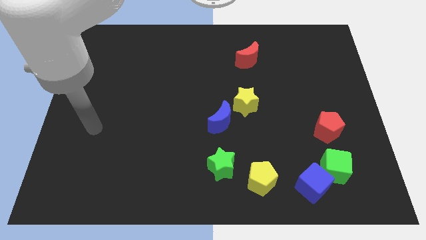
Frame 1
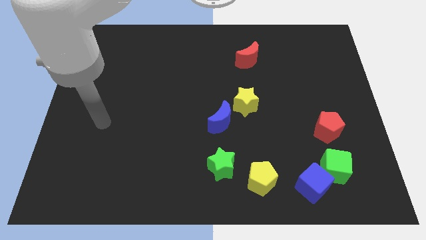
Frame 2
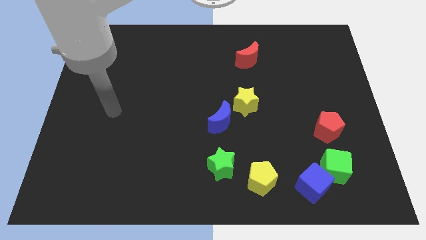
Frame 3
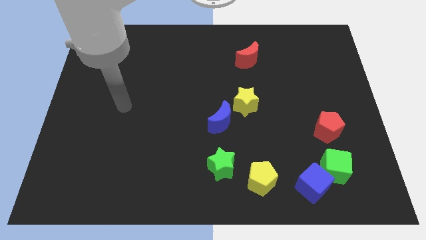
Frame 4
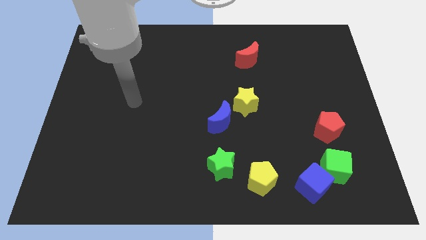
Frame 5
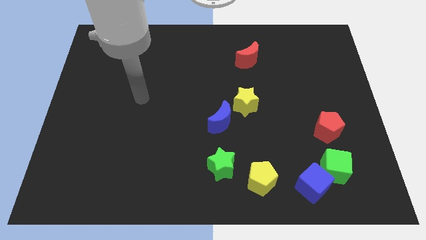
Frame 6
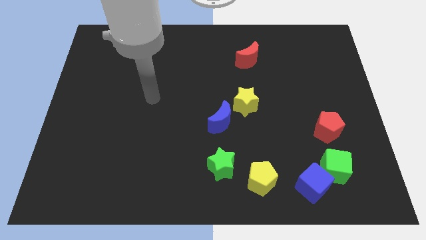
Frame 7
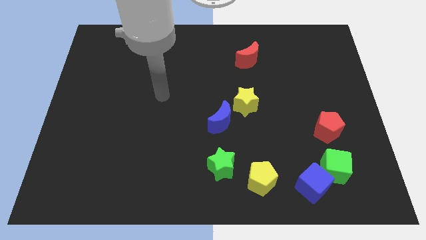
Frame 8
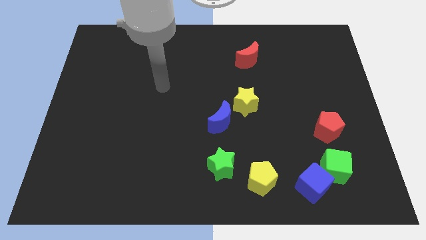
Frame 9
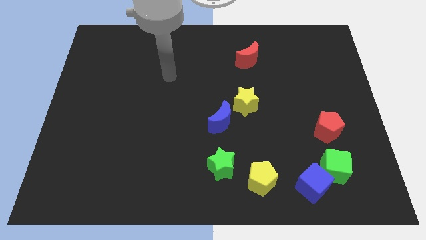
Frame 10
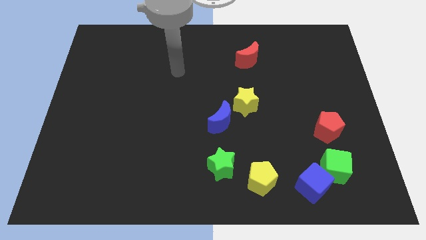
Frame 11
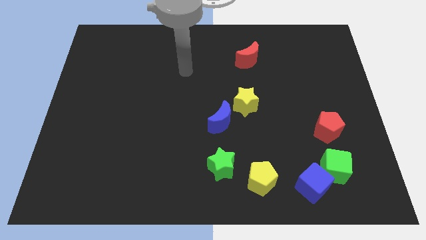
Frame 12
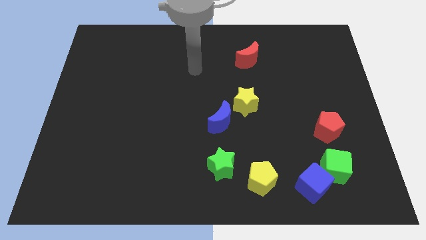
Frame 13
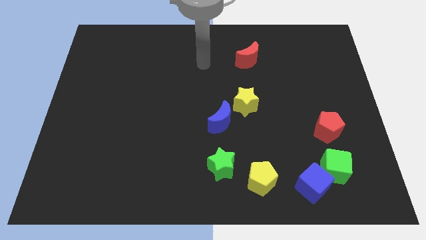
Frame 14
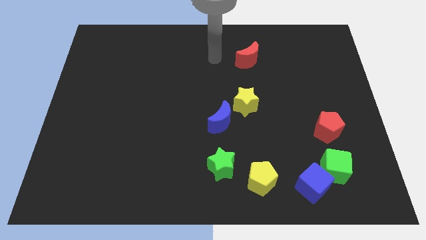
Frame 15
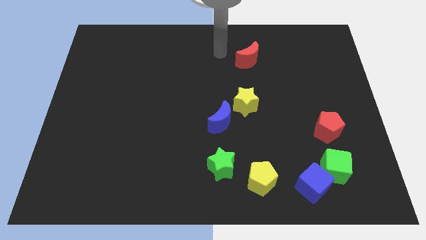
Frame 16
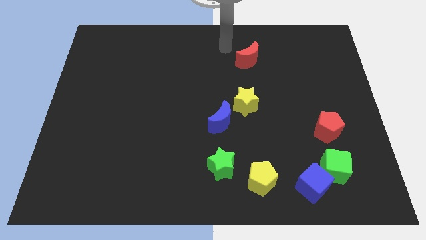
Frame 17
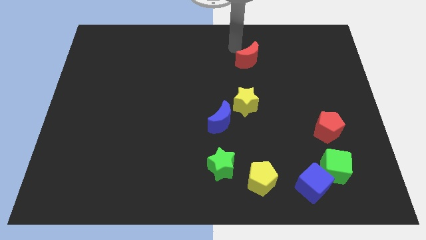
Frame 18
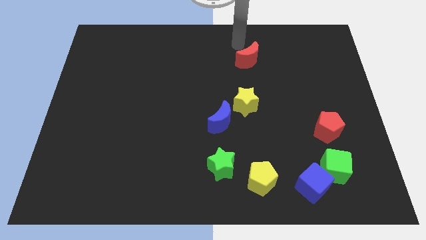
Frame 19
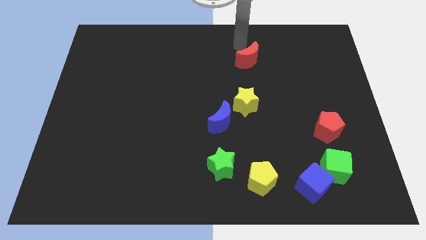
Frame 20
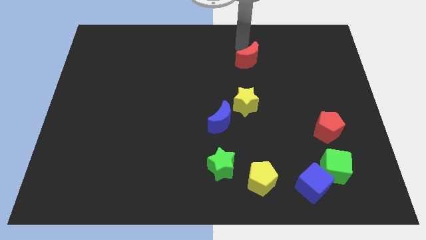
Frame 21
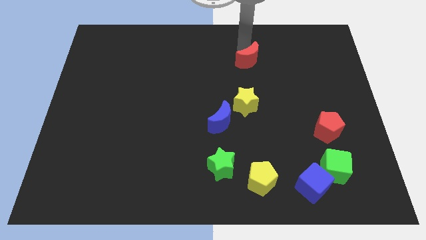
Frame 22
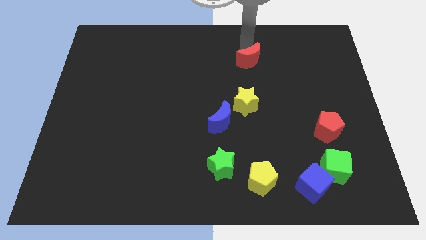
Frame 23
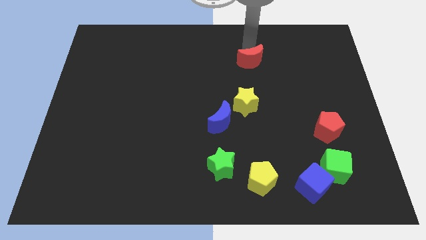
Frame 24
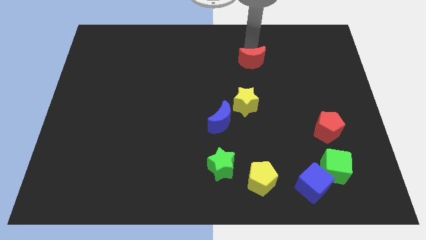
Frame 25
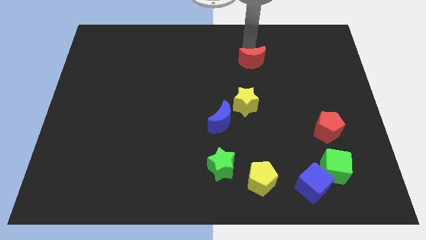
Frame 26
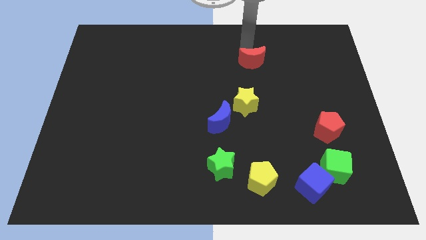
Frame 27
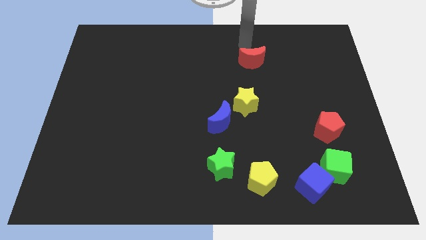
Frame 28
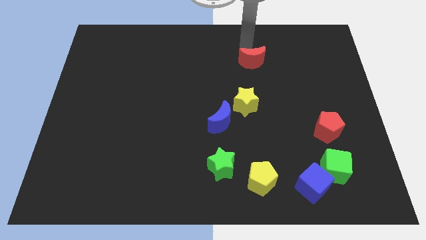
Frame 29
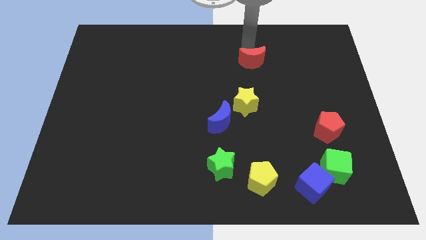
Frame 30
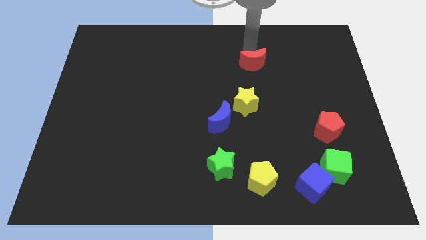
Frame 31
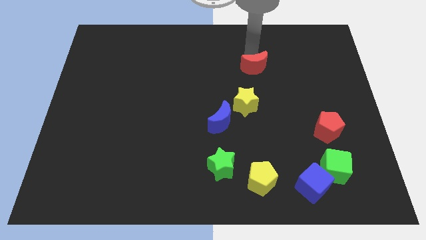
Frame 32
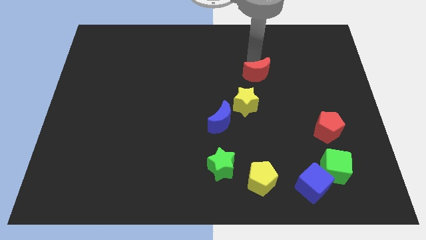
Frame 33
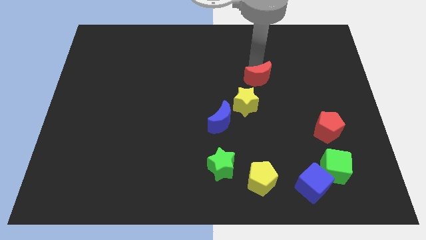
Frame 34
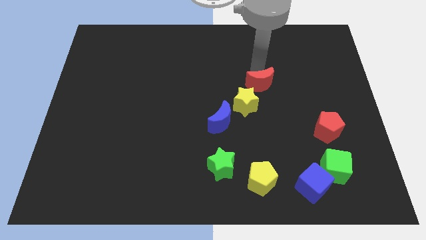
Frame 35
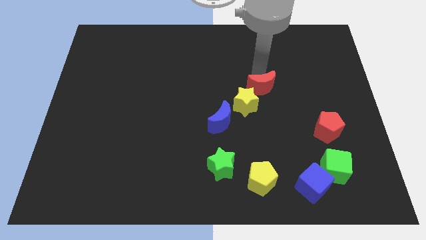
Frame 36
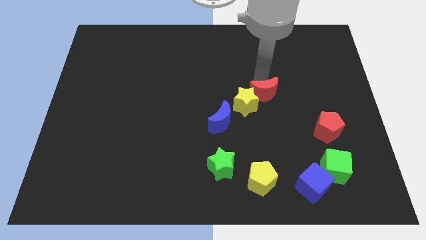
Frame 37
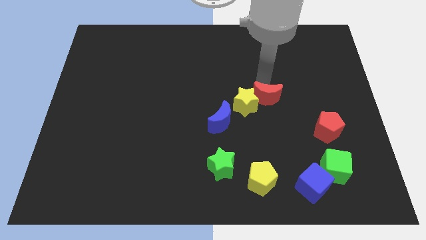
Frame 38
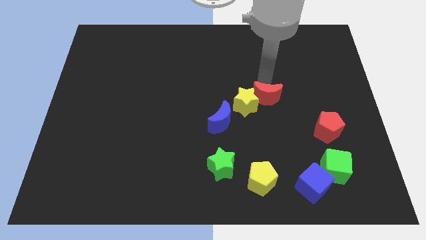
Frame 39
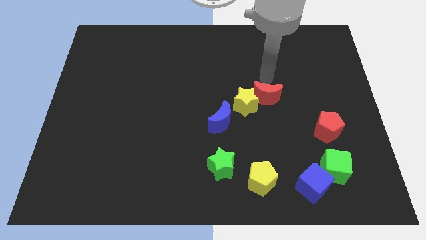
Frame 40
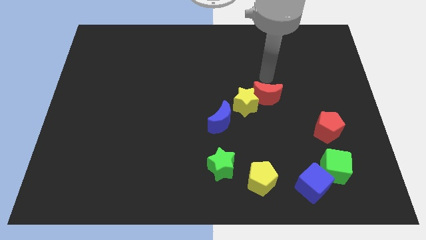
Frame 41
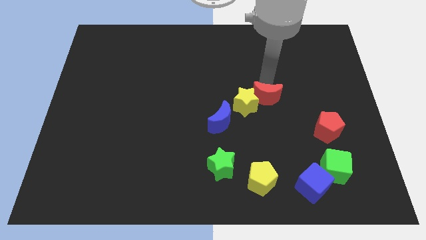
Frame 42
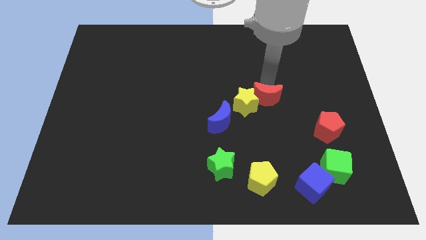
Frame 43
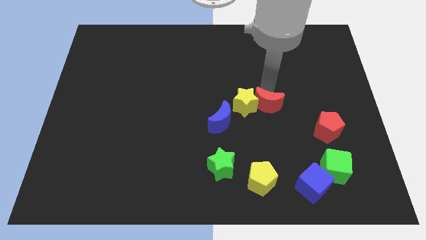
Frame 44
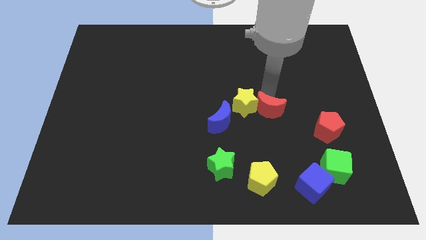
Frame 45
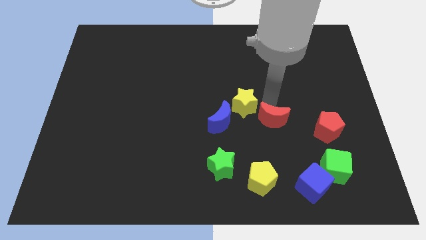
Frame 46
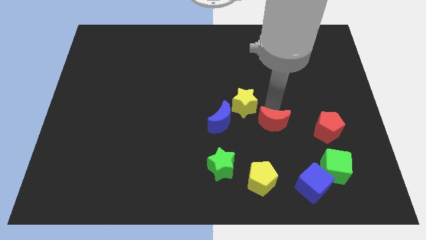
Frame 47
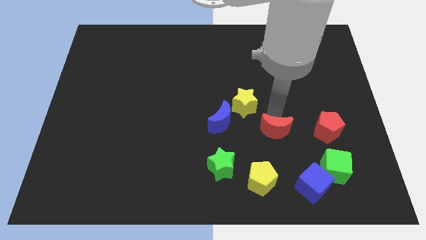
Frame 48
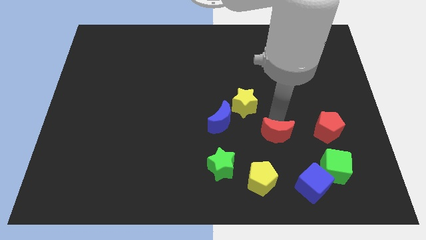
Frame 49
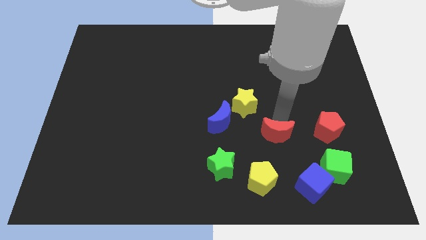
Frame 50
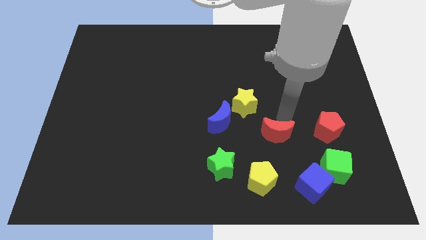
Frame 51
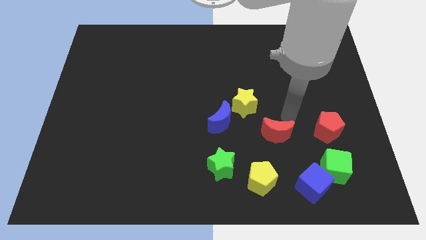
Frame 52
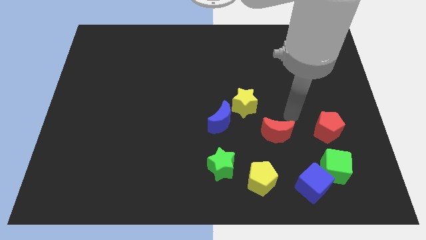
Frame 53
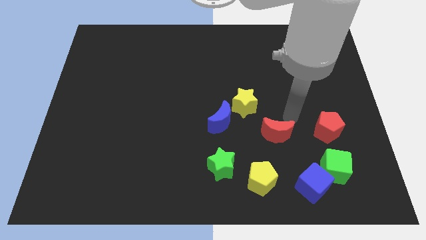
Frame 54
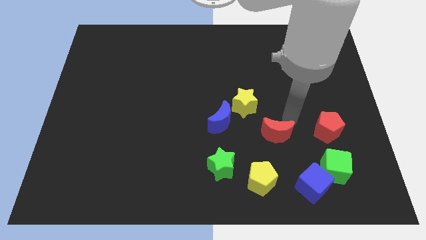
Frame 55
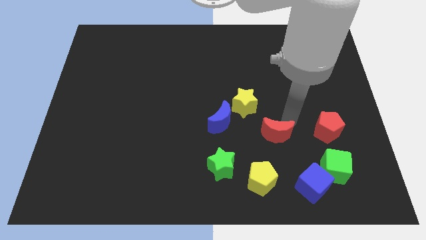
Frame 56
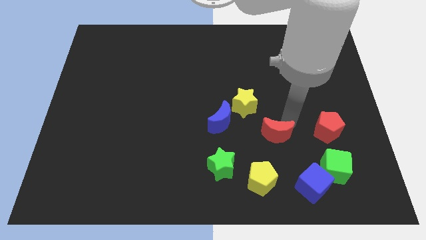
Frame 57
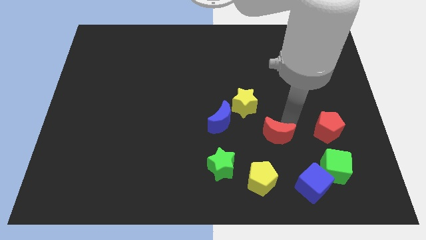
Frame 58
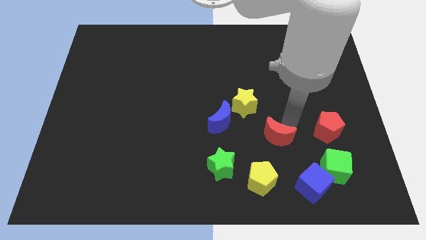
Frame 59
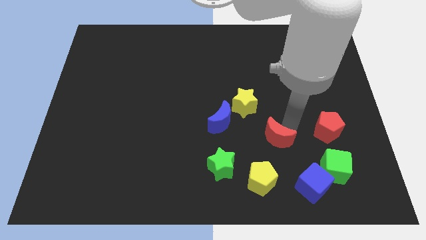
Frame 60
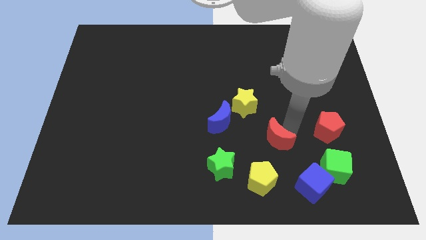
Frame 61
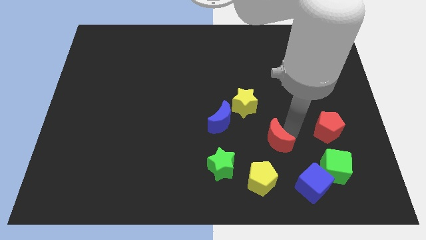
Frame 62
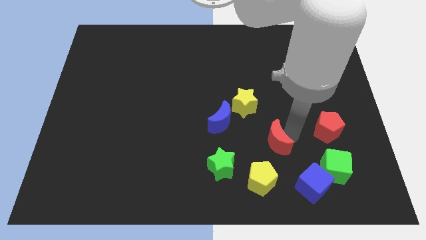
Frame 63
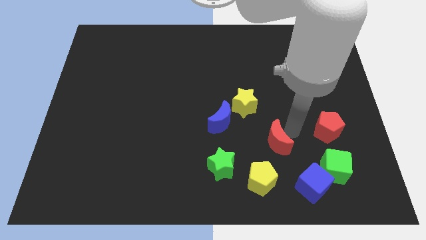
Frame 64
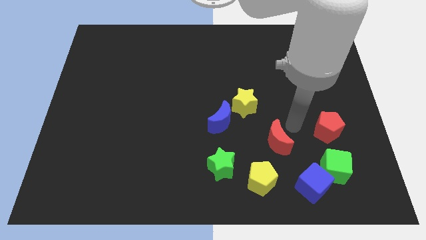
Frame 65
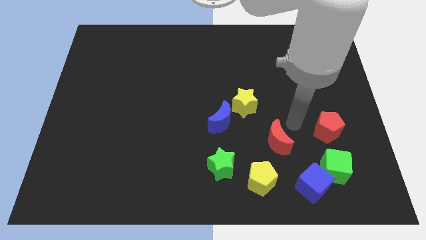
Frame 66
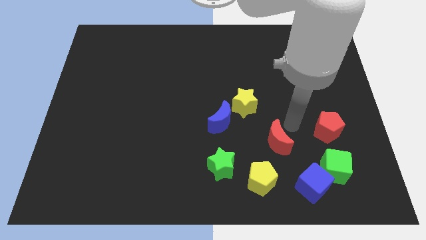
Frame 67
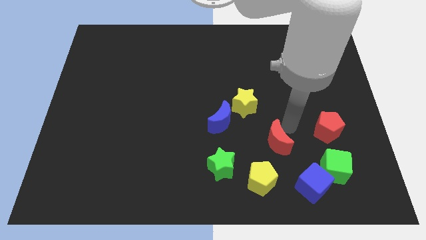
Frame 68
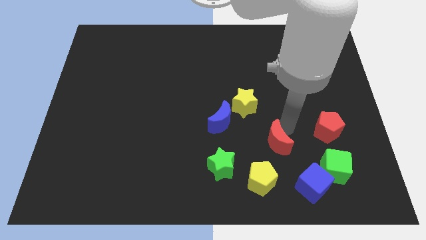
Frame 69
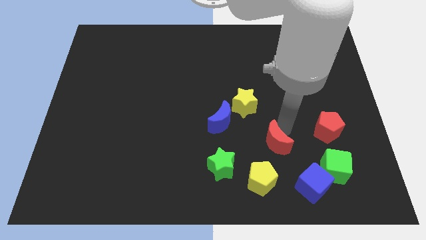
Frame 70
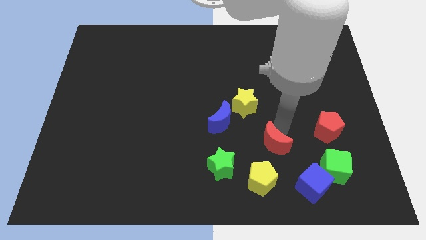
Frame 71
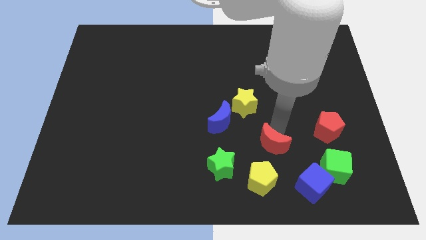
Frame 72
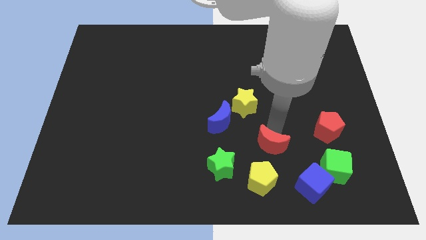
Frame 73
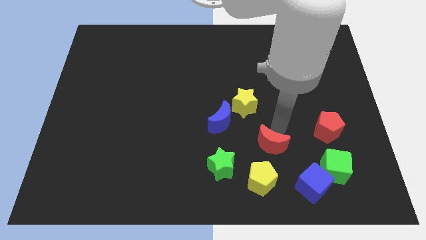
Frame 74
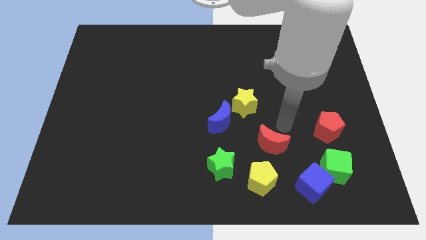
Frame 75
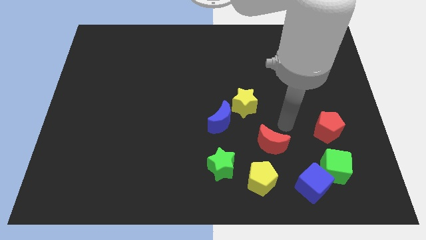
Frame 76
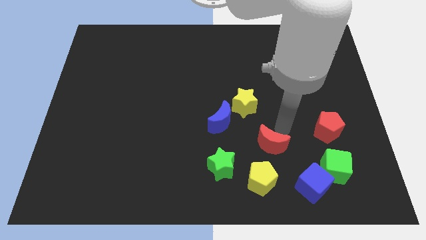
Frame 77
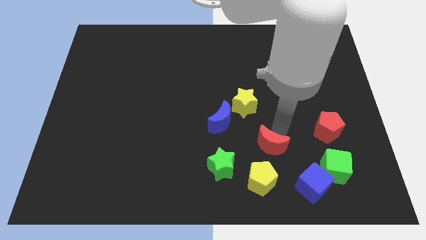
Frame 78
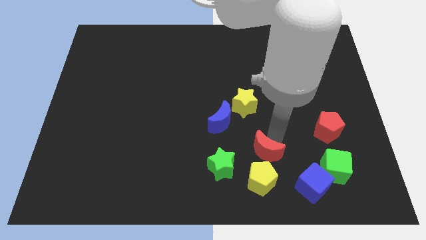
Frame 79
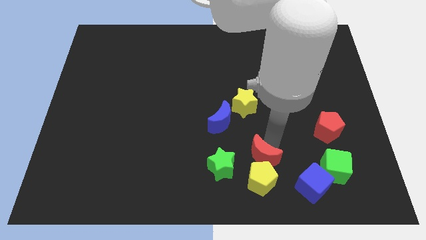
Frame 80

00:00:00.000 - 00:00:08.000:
move the red moon towards the yellow pentagon
